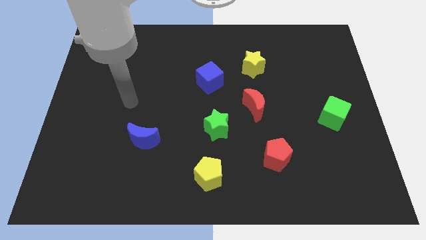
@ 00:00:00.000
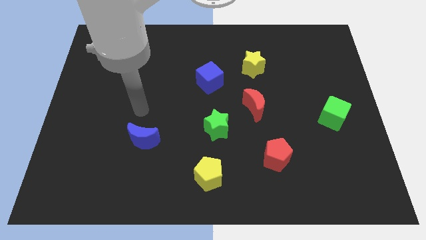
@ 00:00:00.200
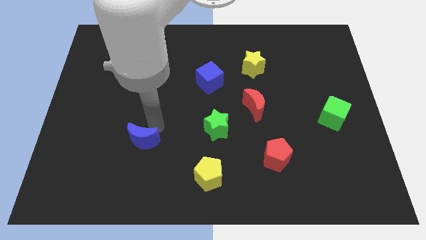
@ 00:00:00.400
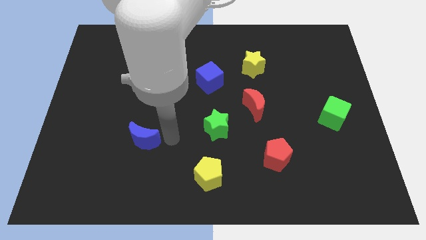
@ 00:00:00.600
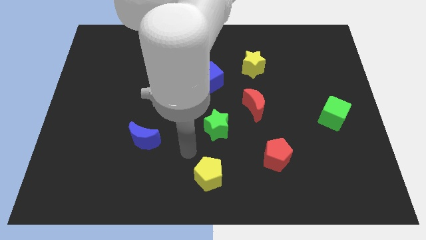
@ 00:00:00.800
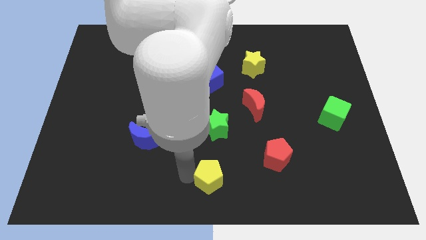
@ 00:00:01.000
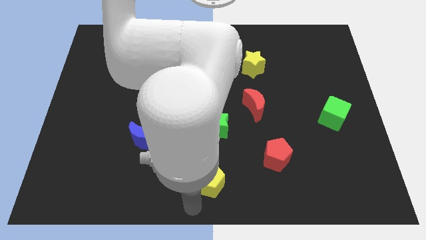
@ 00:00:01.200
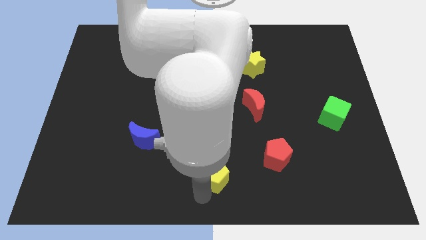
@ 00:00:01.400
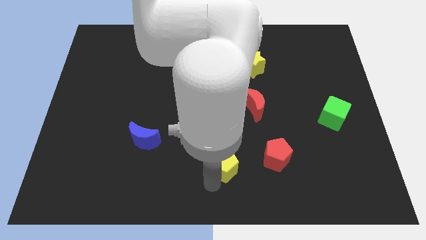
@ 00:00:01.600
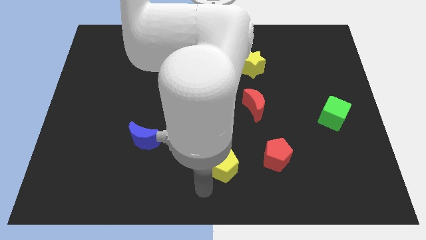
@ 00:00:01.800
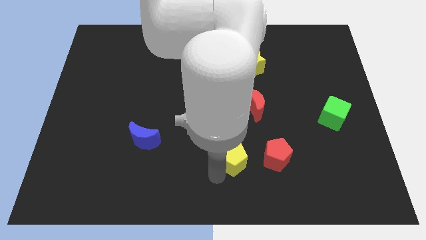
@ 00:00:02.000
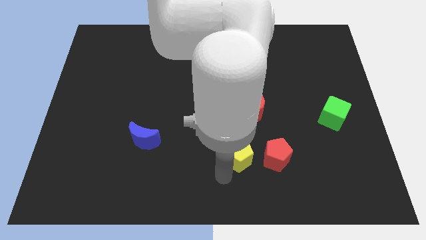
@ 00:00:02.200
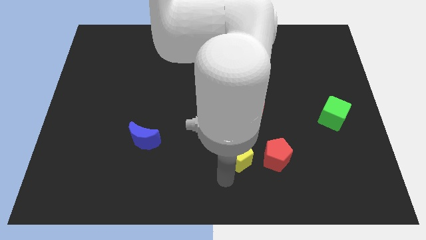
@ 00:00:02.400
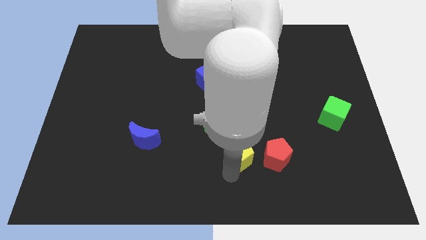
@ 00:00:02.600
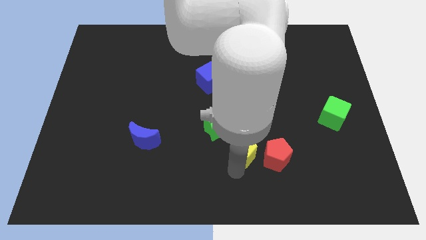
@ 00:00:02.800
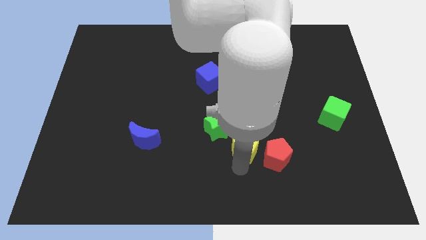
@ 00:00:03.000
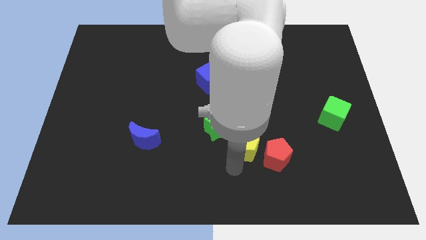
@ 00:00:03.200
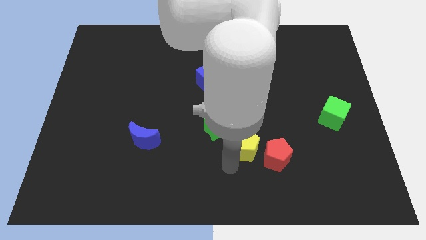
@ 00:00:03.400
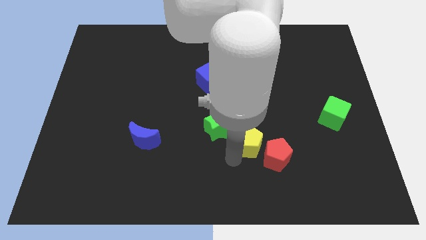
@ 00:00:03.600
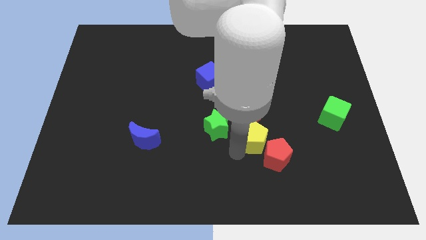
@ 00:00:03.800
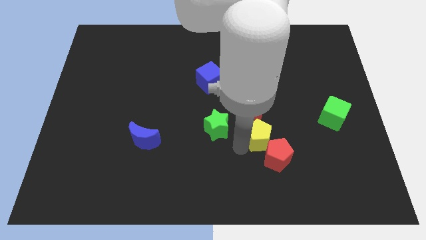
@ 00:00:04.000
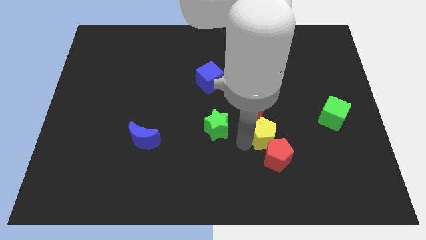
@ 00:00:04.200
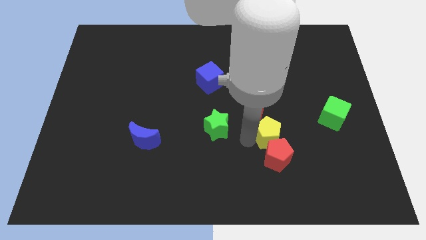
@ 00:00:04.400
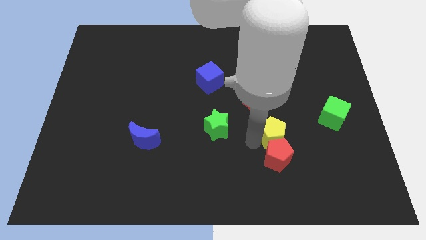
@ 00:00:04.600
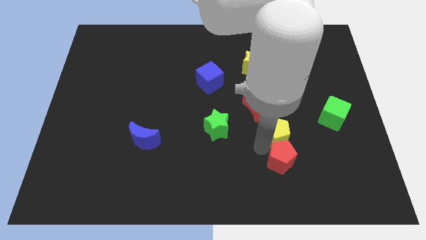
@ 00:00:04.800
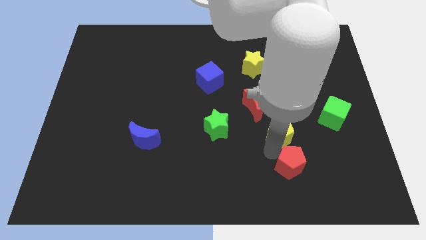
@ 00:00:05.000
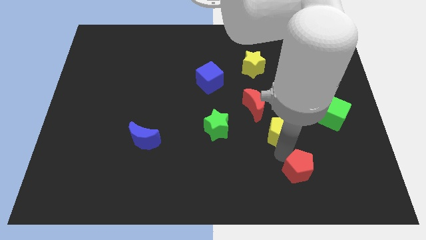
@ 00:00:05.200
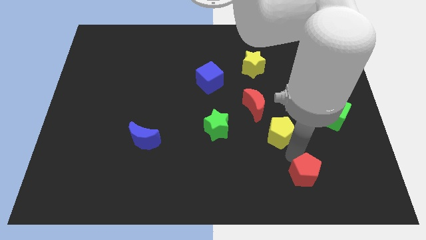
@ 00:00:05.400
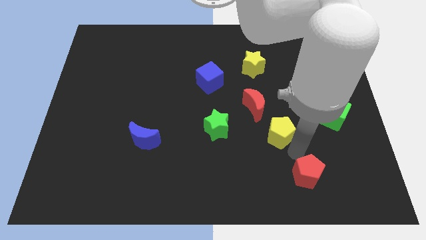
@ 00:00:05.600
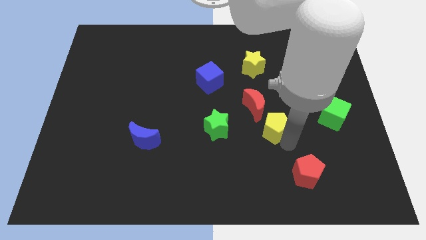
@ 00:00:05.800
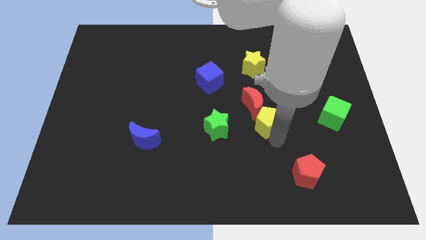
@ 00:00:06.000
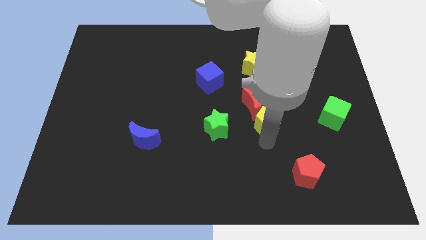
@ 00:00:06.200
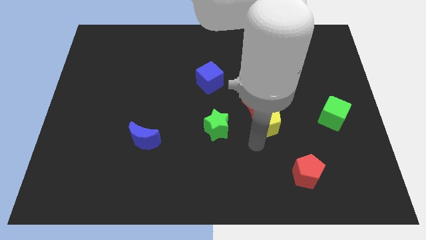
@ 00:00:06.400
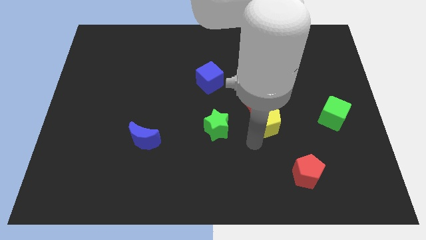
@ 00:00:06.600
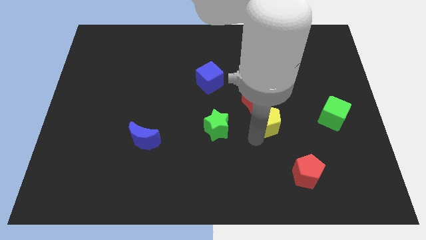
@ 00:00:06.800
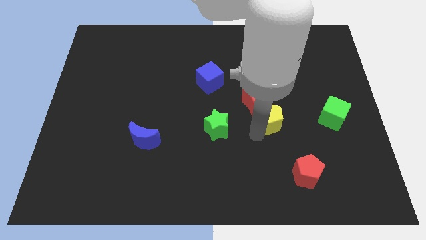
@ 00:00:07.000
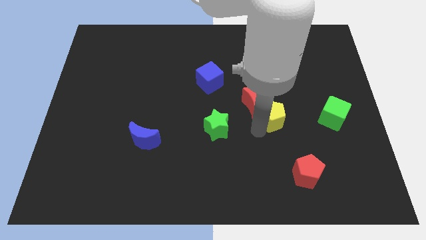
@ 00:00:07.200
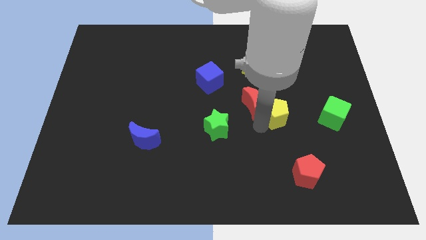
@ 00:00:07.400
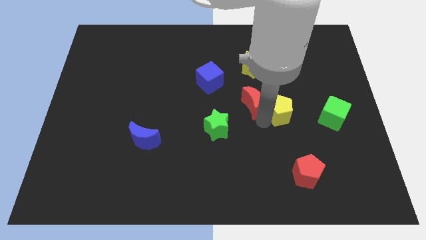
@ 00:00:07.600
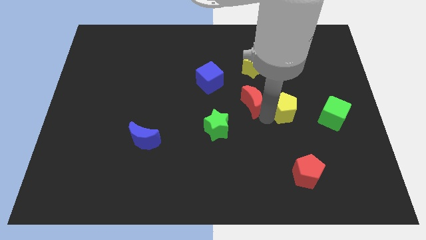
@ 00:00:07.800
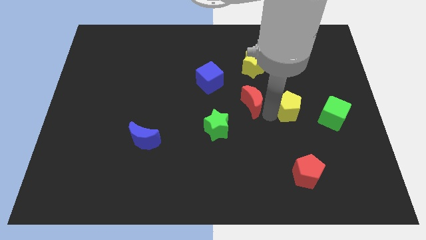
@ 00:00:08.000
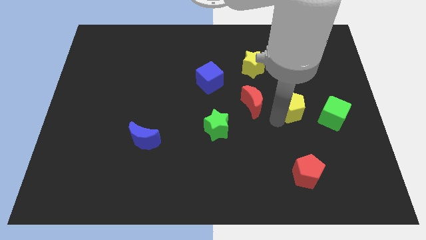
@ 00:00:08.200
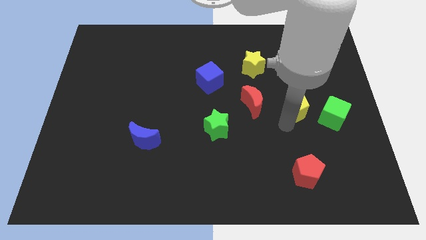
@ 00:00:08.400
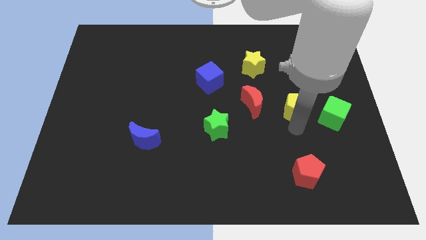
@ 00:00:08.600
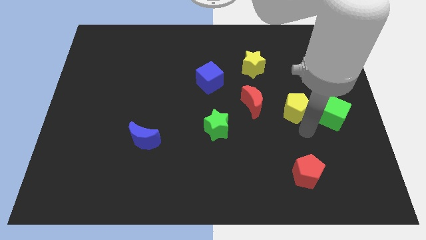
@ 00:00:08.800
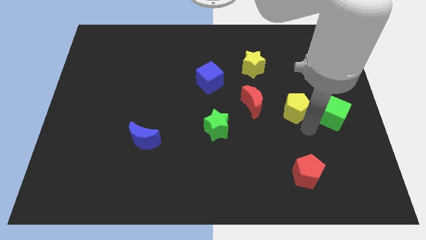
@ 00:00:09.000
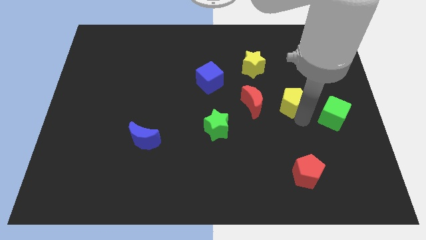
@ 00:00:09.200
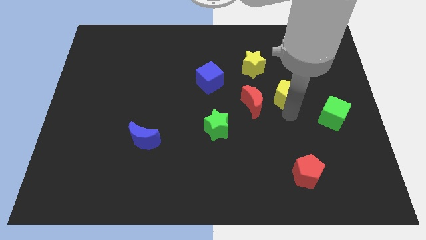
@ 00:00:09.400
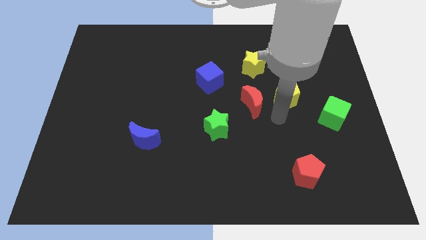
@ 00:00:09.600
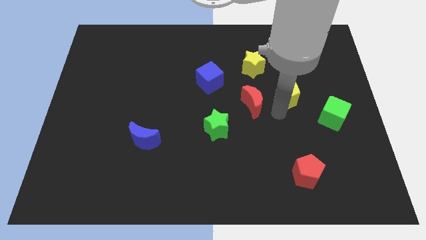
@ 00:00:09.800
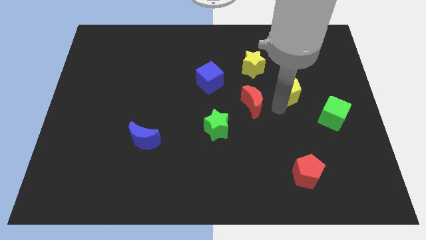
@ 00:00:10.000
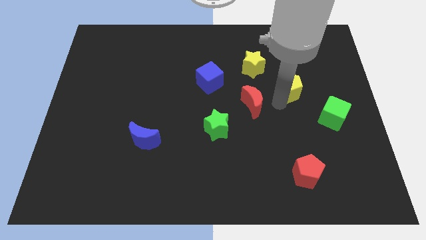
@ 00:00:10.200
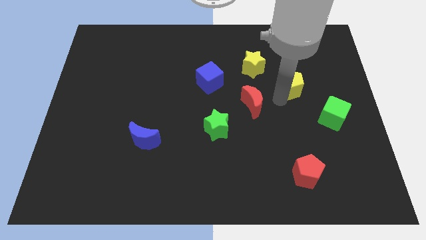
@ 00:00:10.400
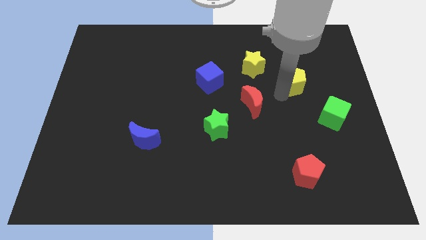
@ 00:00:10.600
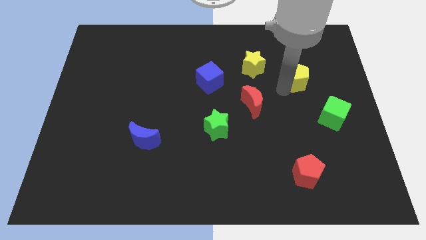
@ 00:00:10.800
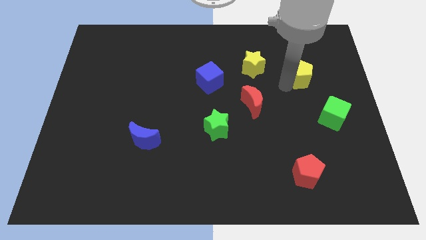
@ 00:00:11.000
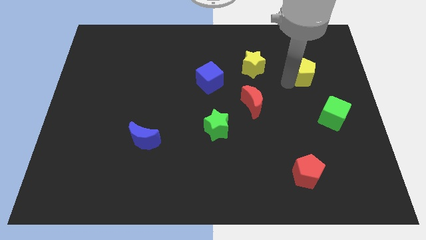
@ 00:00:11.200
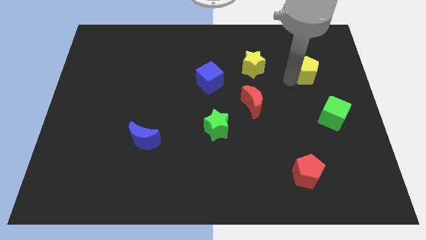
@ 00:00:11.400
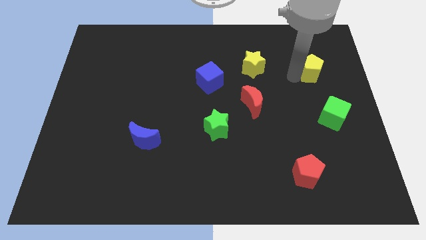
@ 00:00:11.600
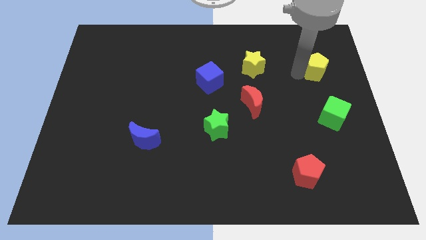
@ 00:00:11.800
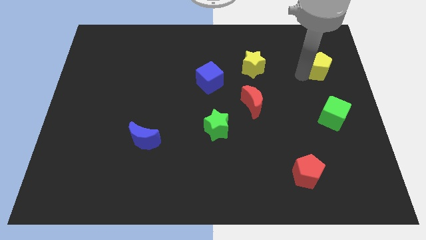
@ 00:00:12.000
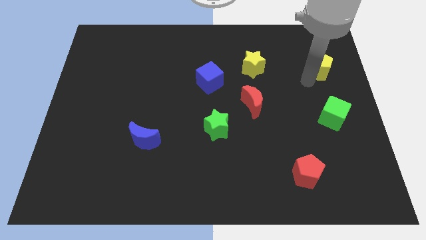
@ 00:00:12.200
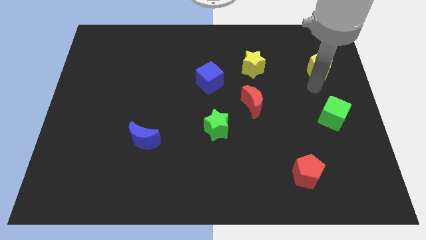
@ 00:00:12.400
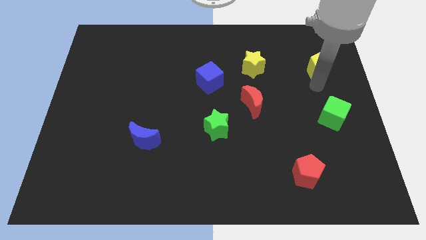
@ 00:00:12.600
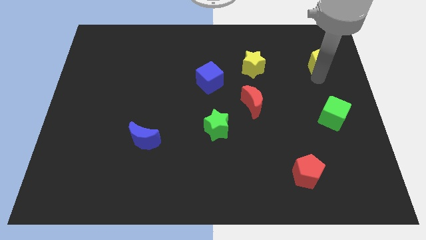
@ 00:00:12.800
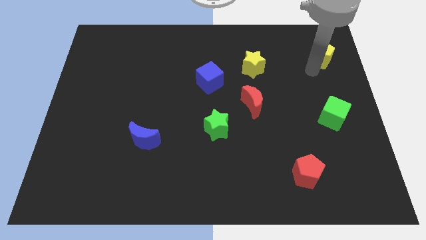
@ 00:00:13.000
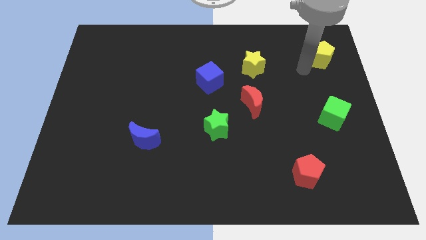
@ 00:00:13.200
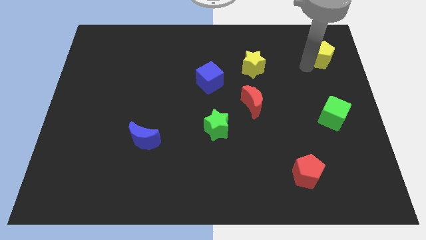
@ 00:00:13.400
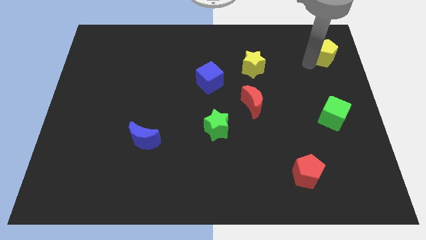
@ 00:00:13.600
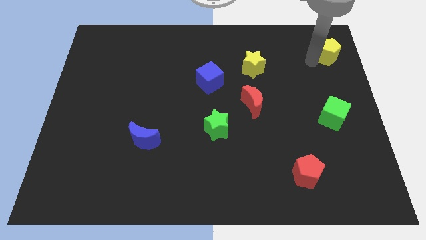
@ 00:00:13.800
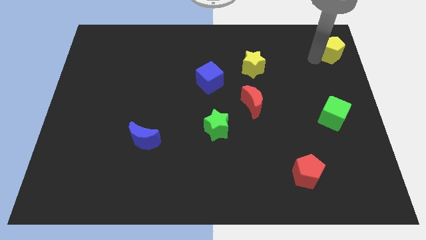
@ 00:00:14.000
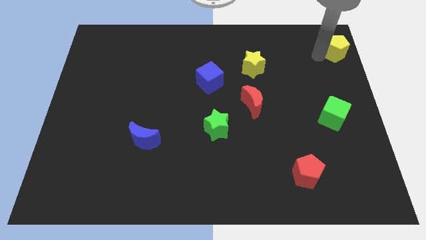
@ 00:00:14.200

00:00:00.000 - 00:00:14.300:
slide the yellow pentagon to the upper right corner

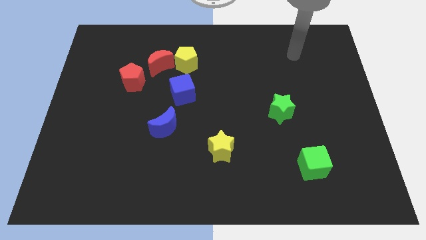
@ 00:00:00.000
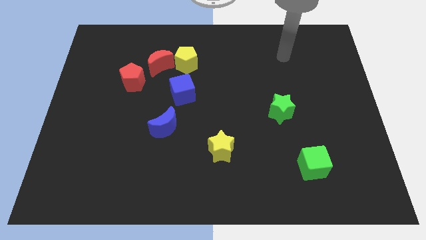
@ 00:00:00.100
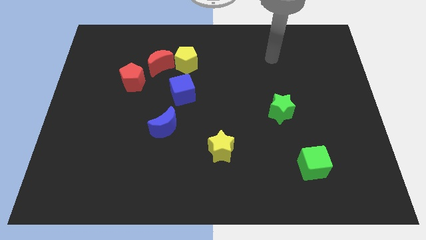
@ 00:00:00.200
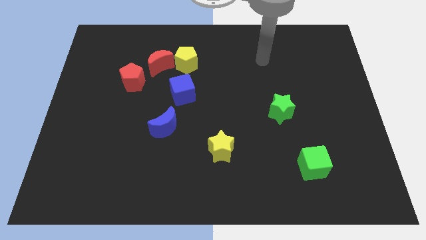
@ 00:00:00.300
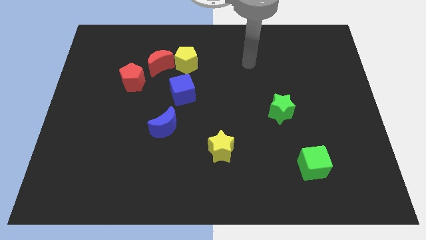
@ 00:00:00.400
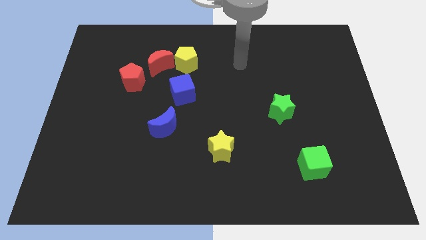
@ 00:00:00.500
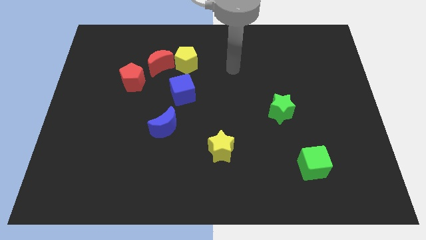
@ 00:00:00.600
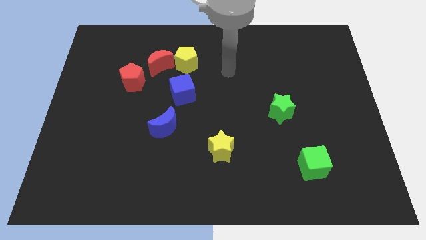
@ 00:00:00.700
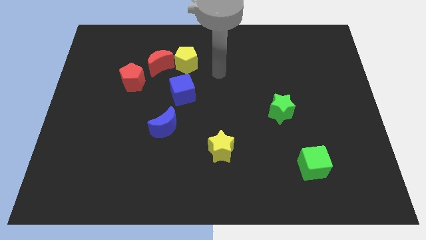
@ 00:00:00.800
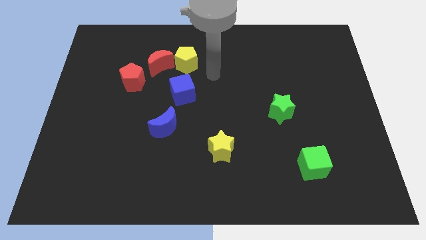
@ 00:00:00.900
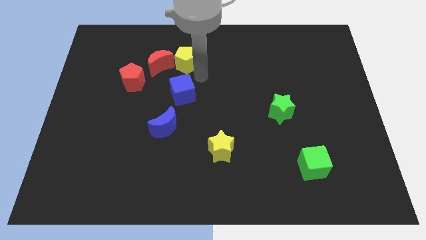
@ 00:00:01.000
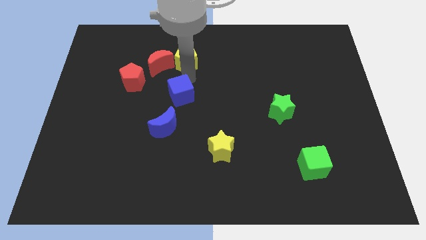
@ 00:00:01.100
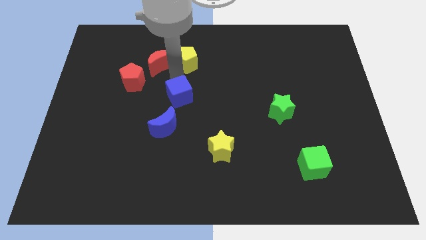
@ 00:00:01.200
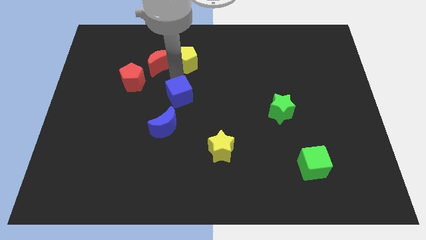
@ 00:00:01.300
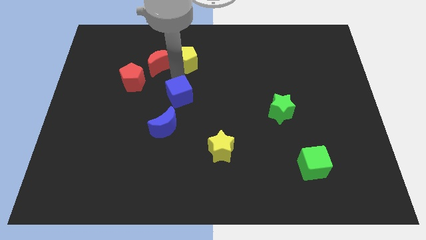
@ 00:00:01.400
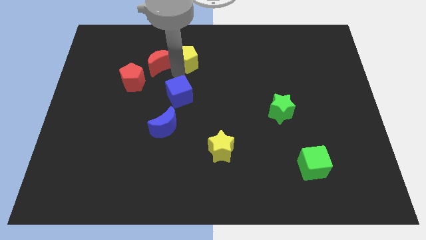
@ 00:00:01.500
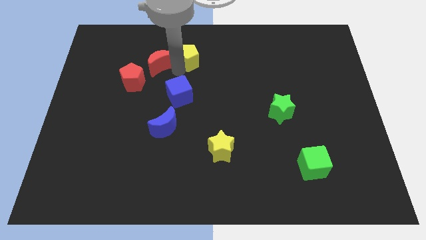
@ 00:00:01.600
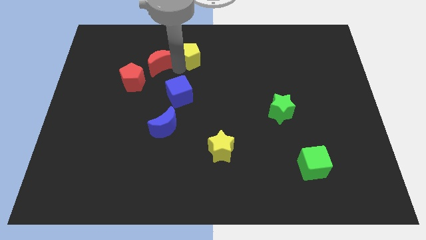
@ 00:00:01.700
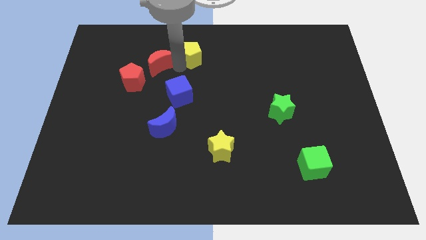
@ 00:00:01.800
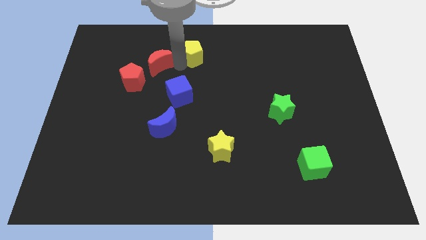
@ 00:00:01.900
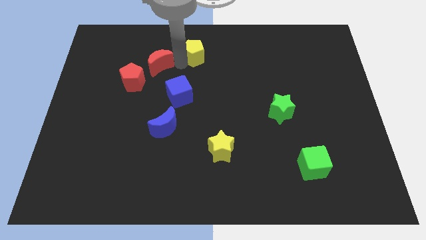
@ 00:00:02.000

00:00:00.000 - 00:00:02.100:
put the yellow pentagon to the top side
